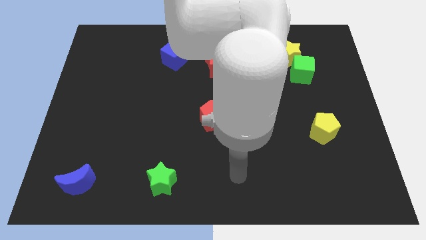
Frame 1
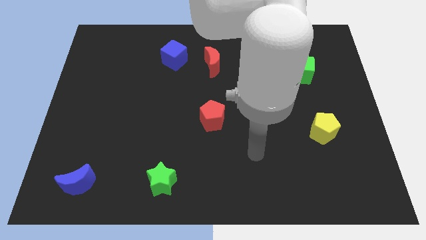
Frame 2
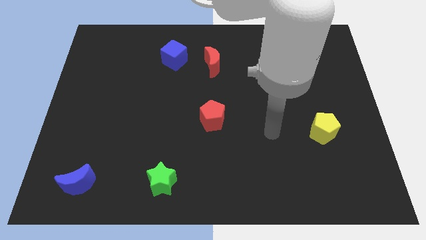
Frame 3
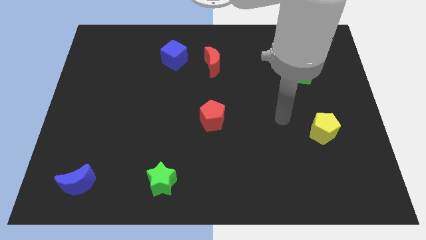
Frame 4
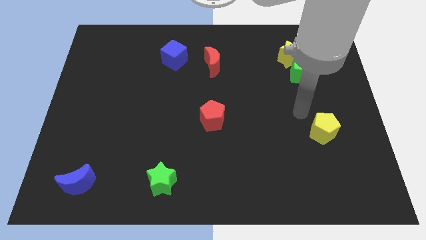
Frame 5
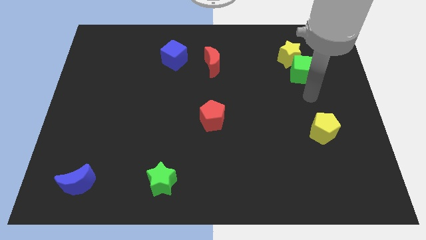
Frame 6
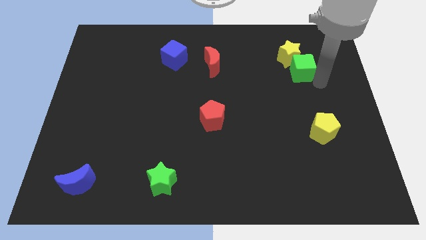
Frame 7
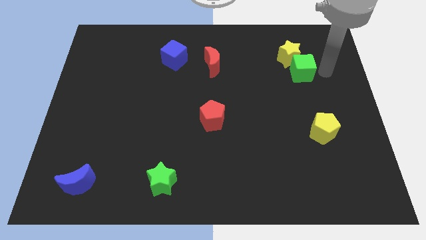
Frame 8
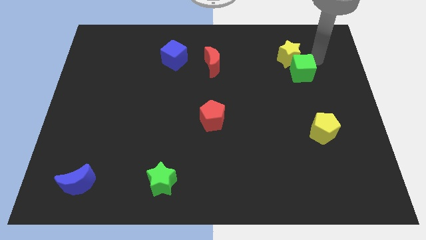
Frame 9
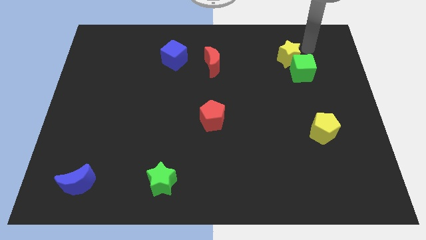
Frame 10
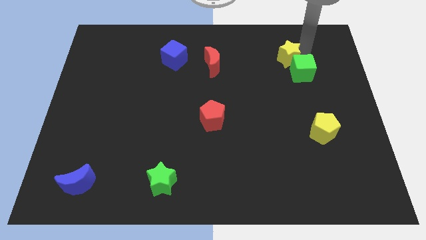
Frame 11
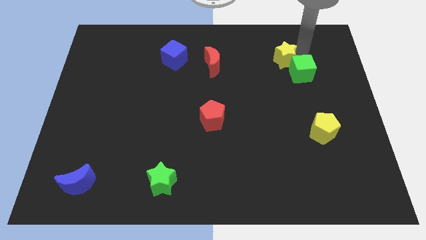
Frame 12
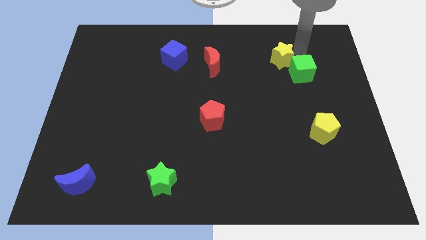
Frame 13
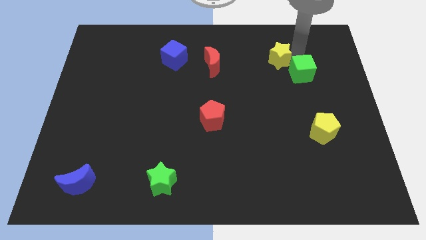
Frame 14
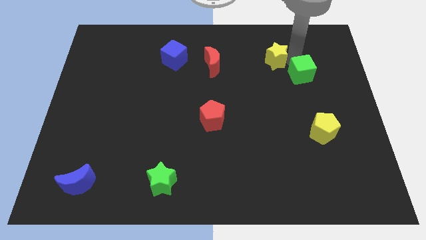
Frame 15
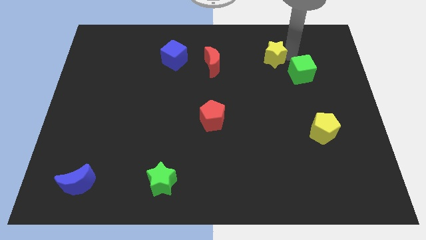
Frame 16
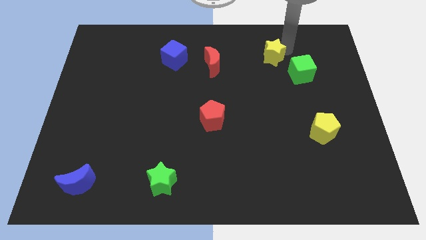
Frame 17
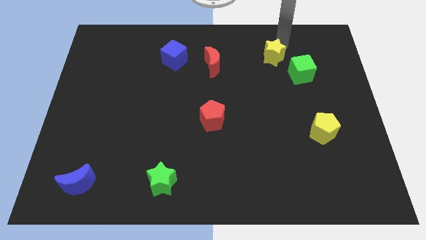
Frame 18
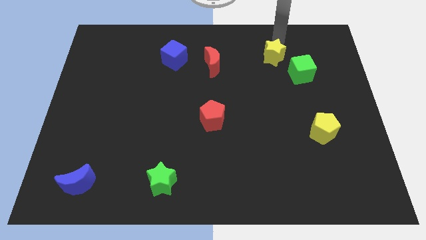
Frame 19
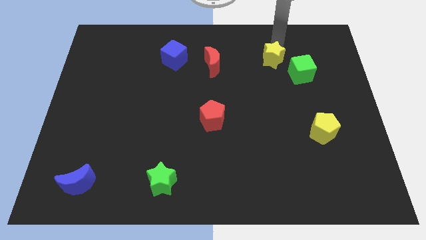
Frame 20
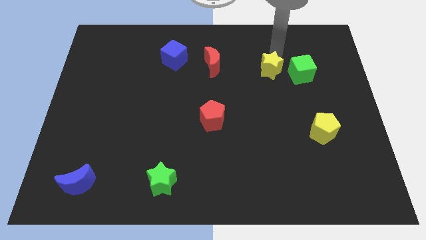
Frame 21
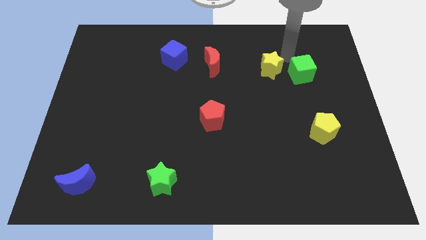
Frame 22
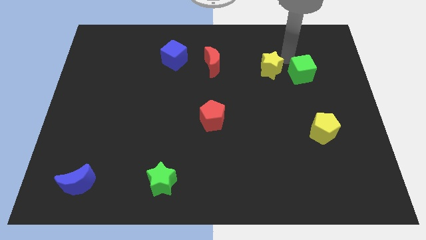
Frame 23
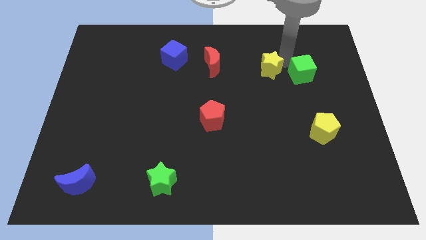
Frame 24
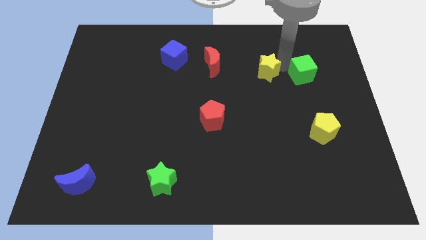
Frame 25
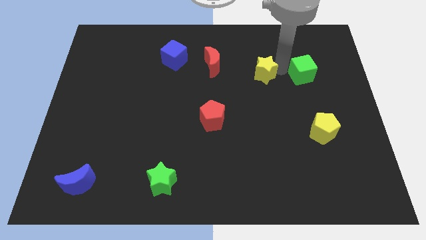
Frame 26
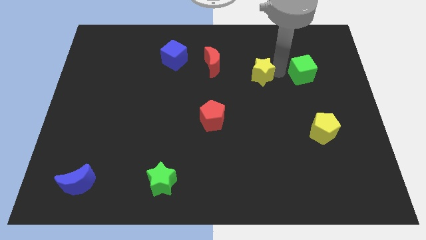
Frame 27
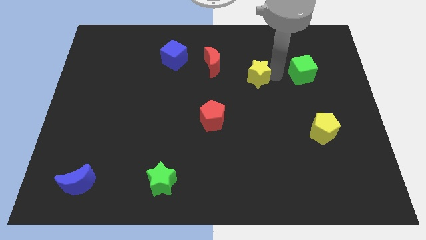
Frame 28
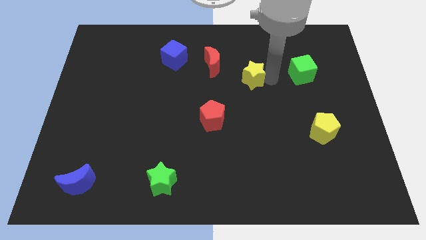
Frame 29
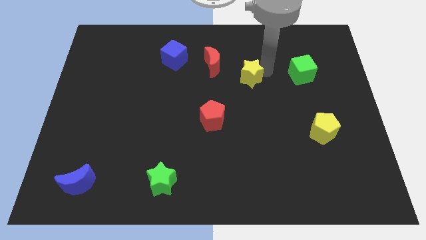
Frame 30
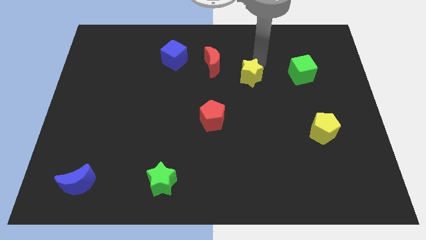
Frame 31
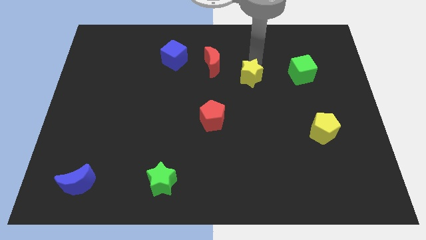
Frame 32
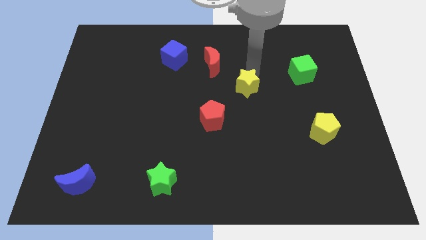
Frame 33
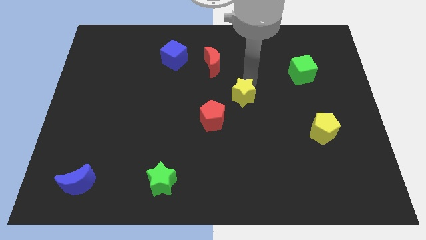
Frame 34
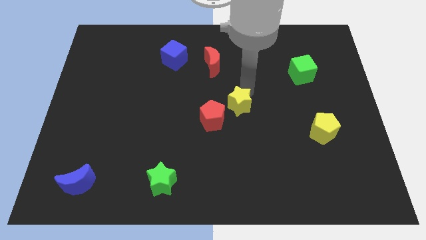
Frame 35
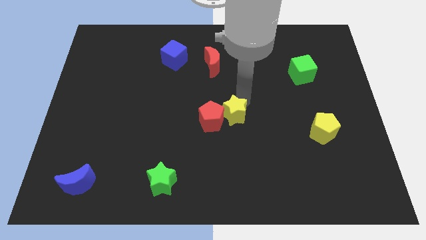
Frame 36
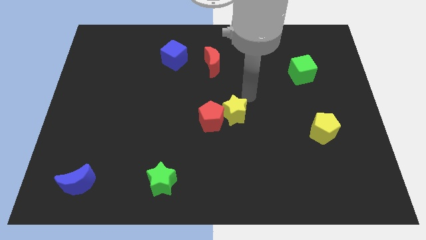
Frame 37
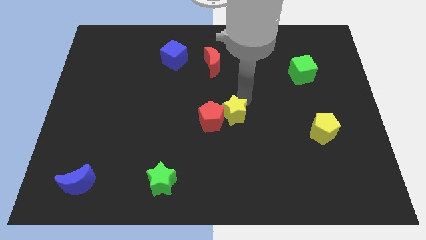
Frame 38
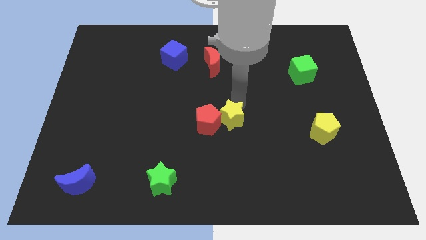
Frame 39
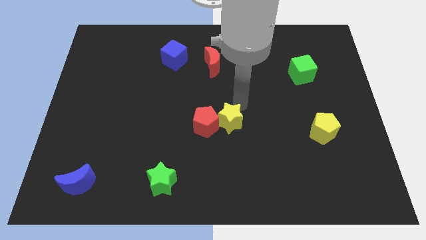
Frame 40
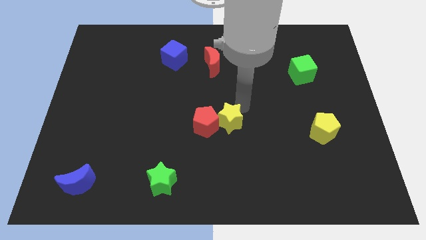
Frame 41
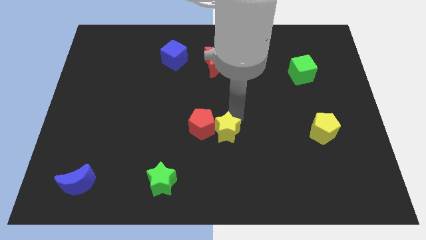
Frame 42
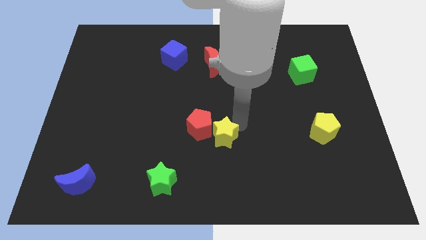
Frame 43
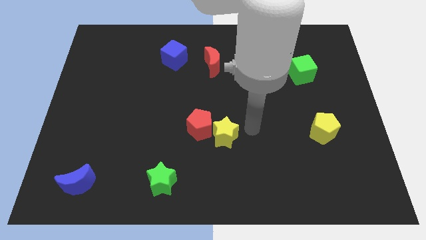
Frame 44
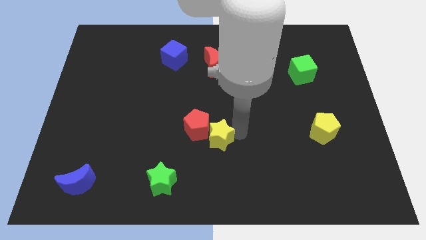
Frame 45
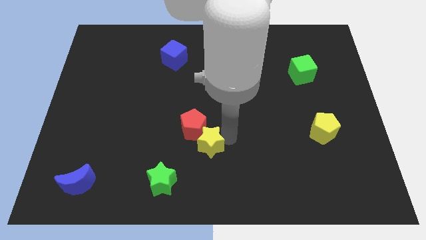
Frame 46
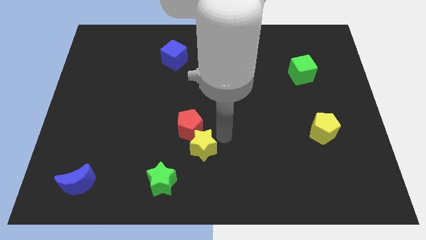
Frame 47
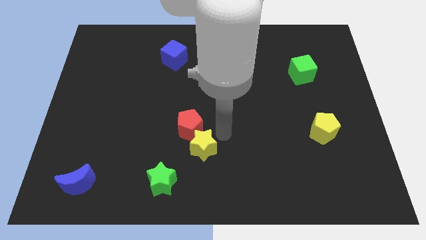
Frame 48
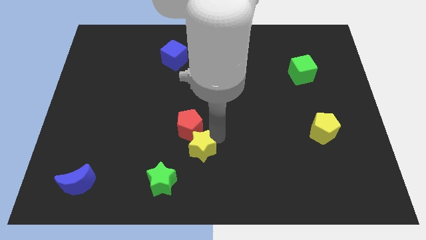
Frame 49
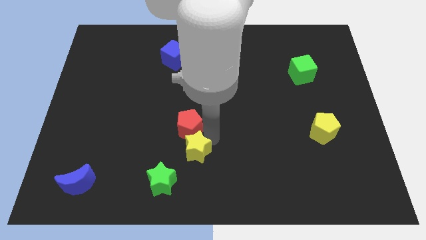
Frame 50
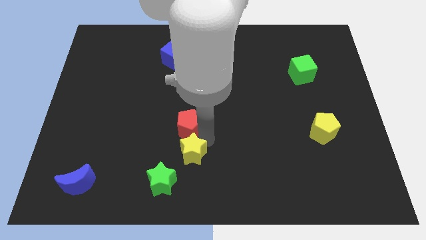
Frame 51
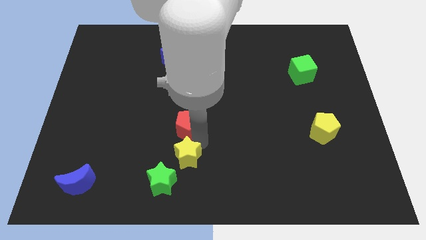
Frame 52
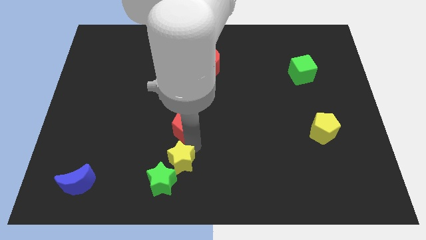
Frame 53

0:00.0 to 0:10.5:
push the yellow star towards the green star

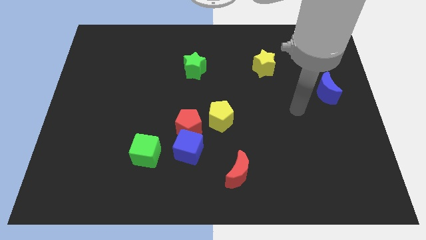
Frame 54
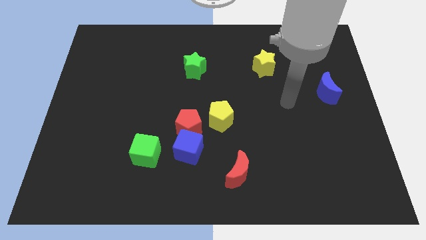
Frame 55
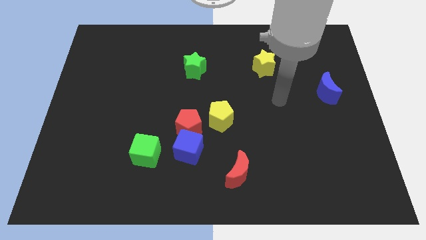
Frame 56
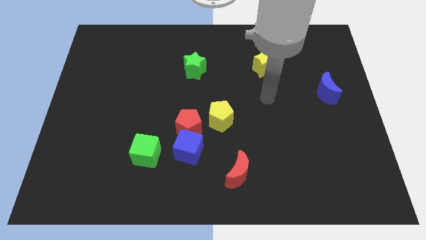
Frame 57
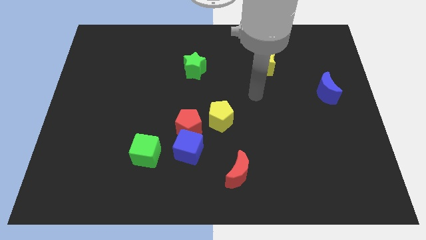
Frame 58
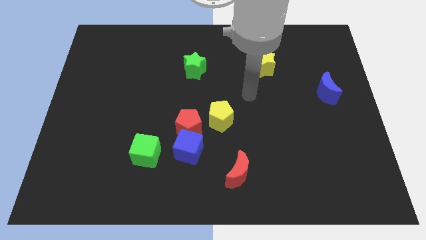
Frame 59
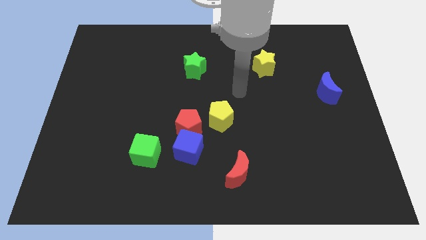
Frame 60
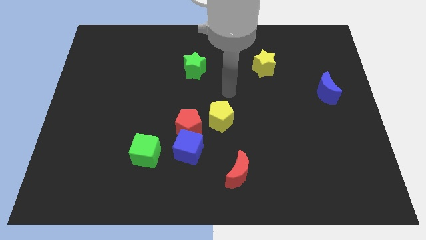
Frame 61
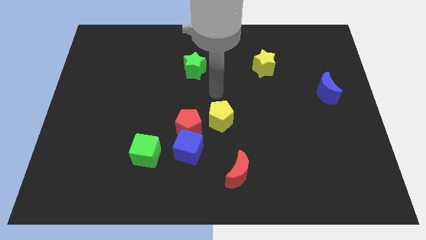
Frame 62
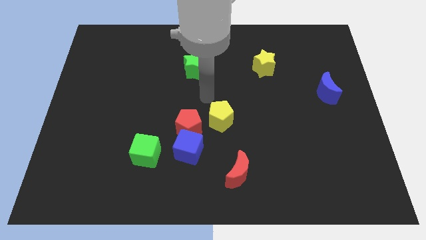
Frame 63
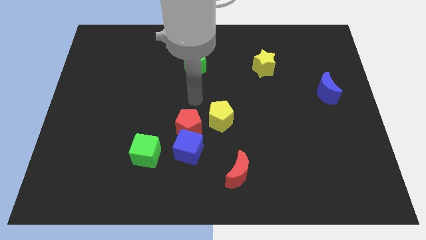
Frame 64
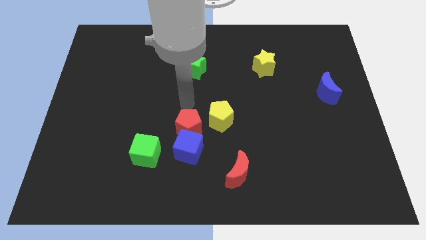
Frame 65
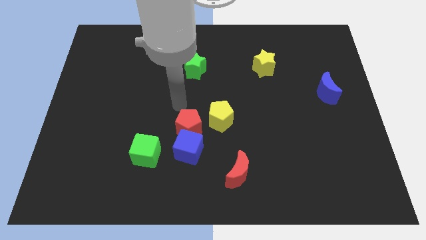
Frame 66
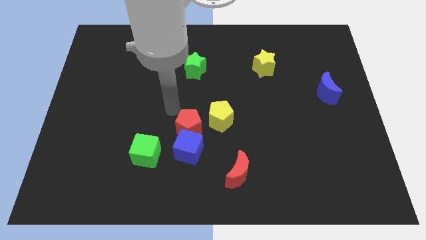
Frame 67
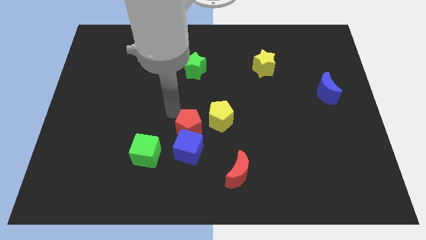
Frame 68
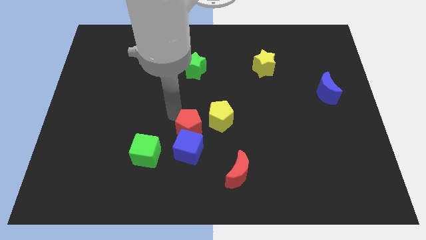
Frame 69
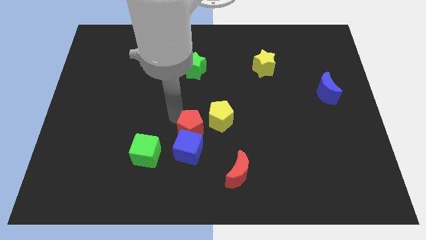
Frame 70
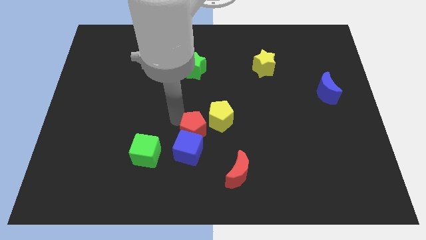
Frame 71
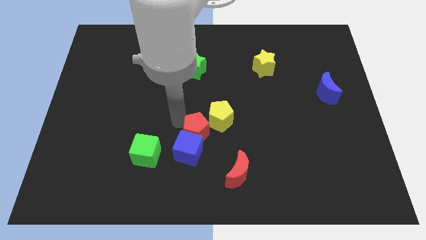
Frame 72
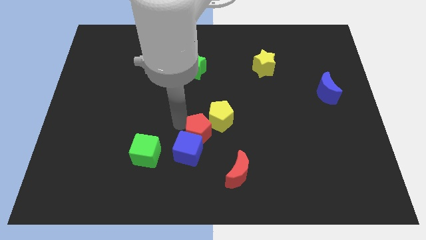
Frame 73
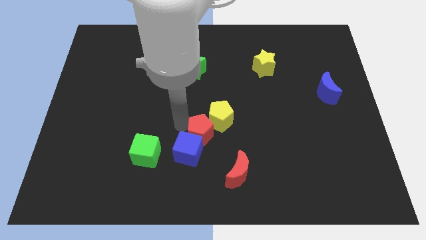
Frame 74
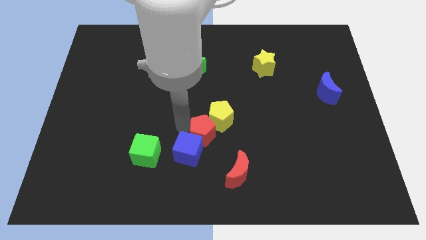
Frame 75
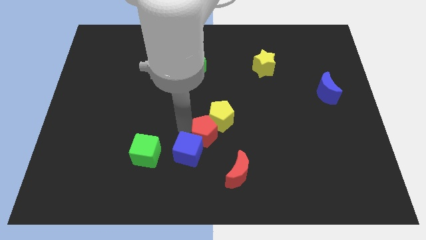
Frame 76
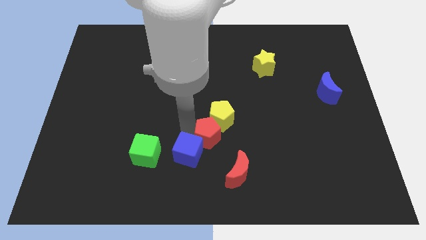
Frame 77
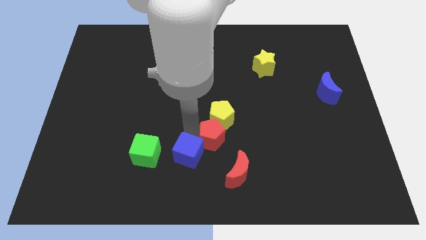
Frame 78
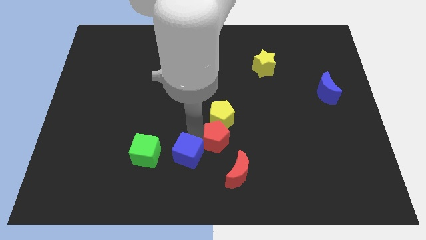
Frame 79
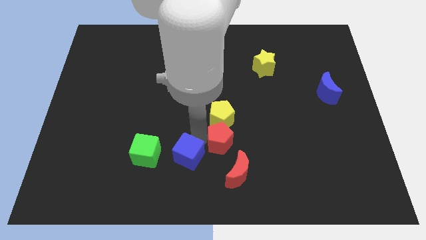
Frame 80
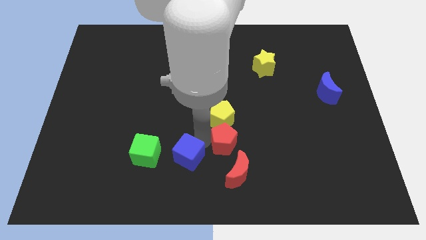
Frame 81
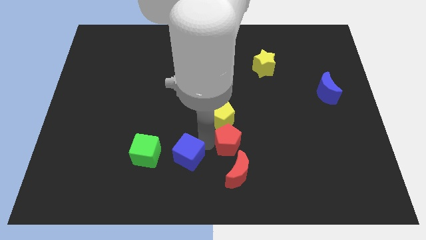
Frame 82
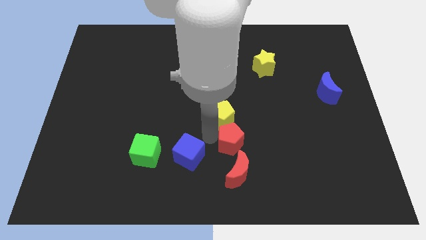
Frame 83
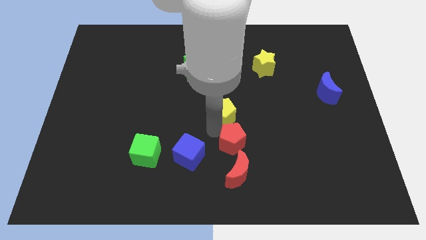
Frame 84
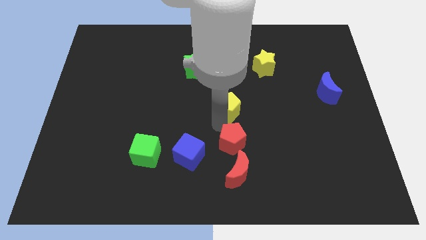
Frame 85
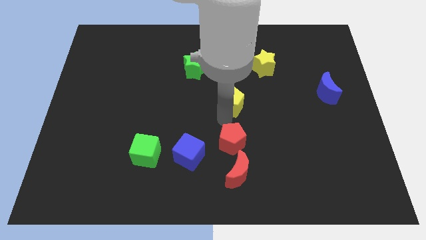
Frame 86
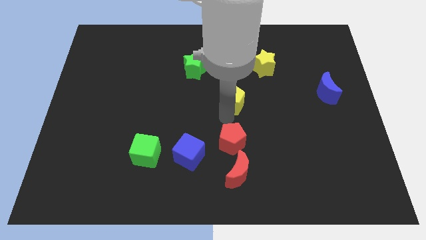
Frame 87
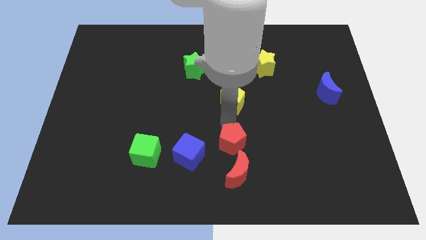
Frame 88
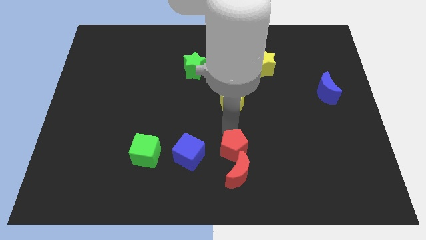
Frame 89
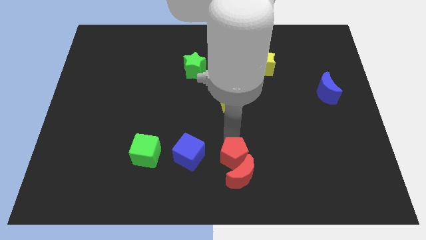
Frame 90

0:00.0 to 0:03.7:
put the red pentagon next to the red moon
